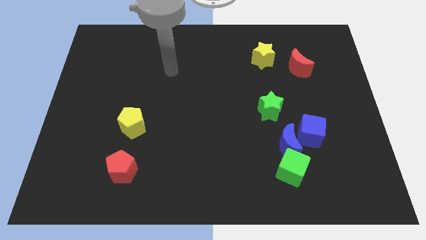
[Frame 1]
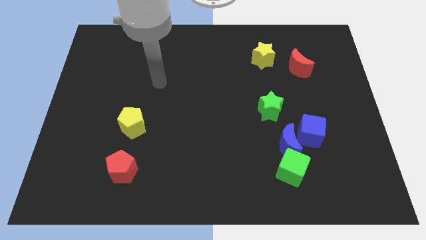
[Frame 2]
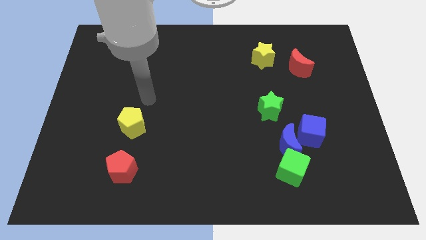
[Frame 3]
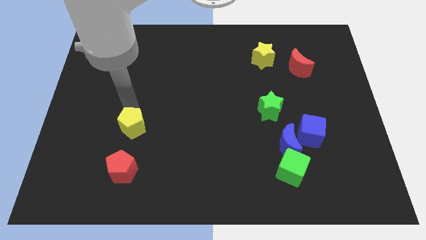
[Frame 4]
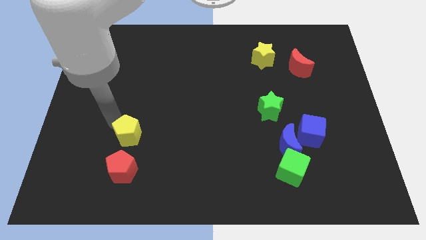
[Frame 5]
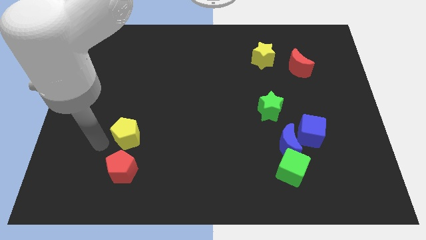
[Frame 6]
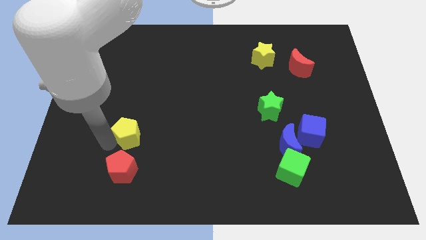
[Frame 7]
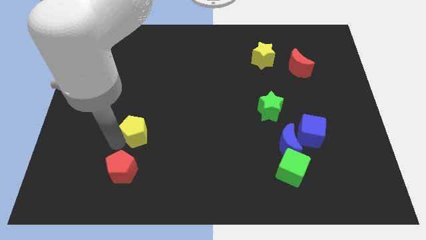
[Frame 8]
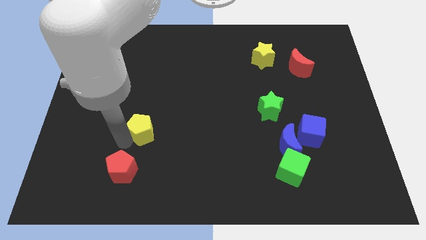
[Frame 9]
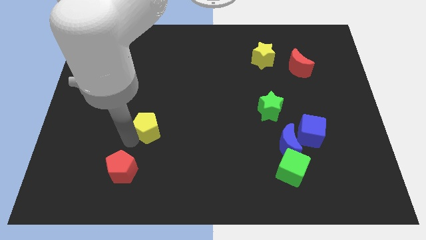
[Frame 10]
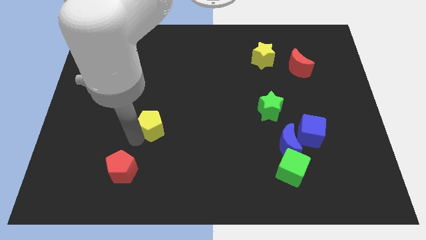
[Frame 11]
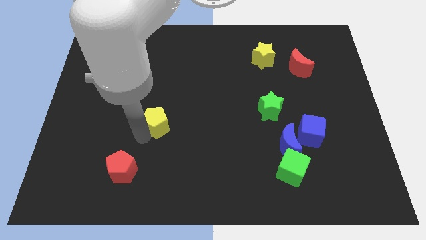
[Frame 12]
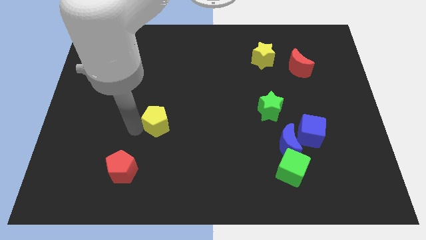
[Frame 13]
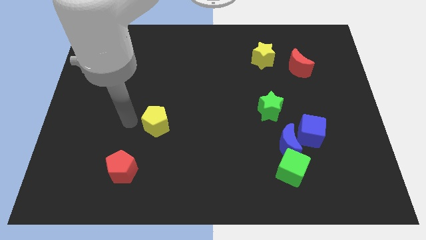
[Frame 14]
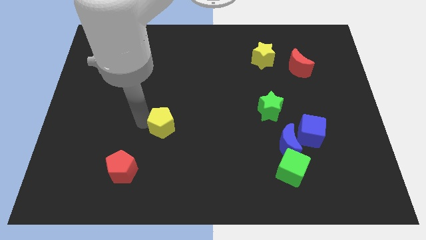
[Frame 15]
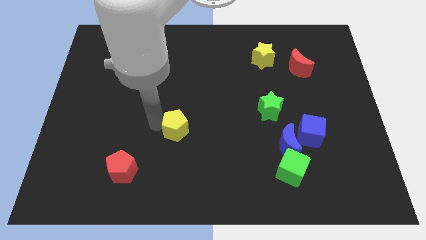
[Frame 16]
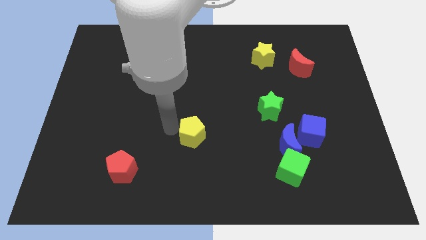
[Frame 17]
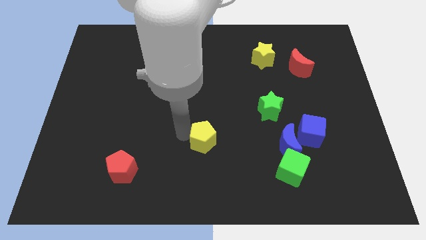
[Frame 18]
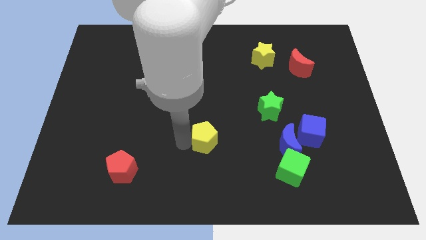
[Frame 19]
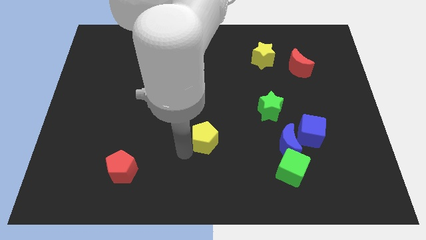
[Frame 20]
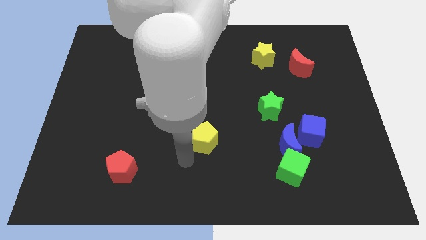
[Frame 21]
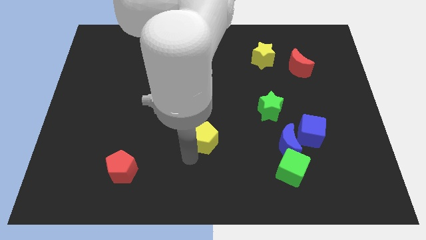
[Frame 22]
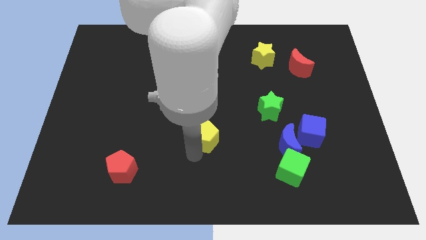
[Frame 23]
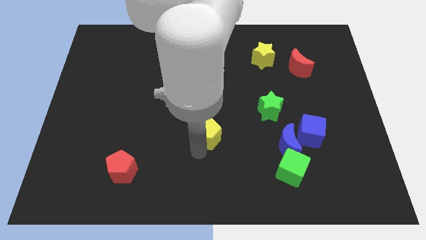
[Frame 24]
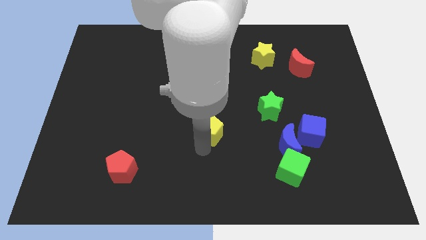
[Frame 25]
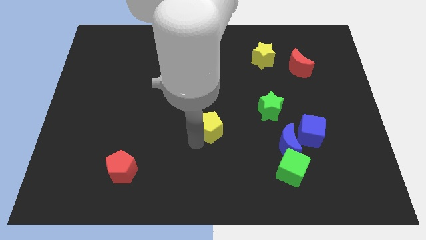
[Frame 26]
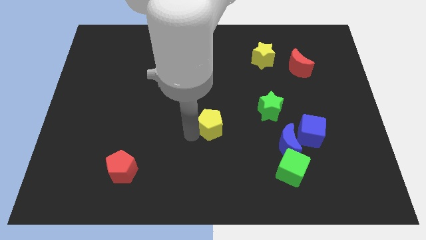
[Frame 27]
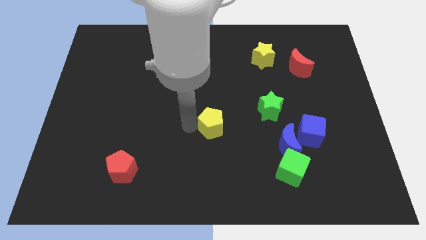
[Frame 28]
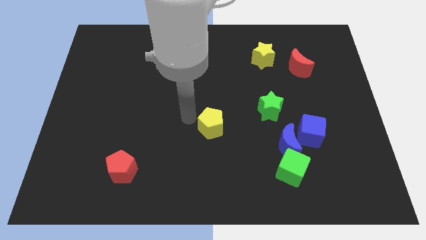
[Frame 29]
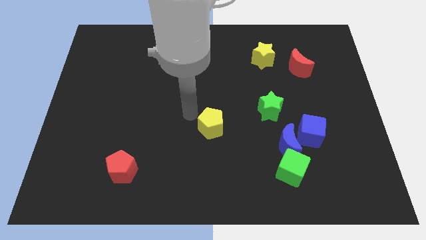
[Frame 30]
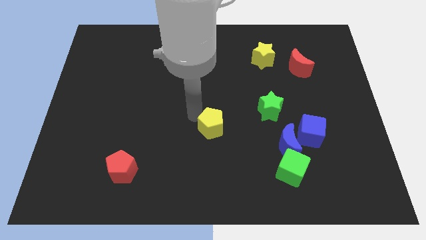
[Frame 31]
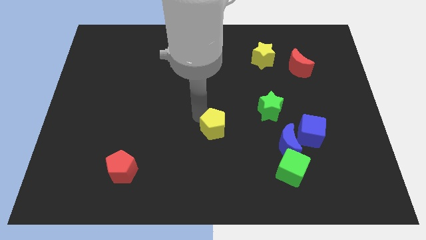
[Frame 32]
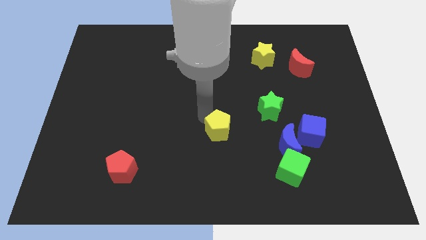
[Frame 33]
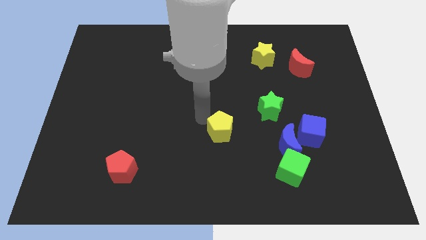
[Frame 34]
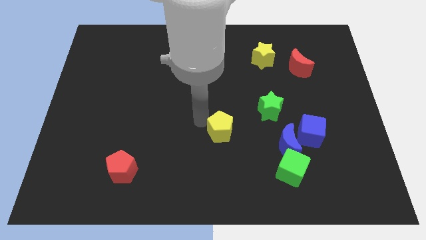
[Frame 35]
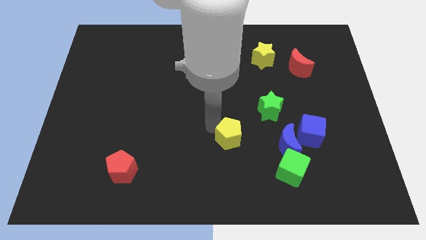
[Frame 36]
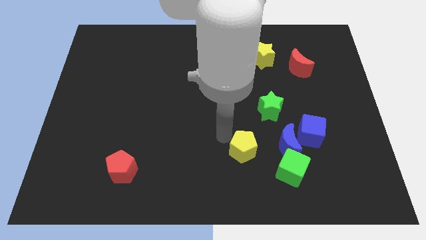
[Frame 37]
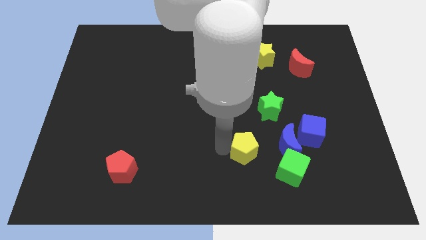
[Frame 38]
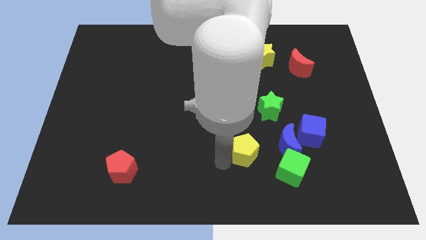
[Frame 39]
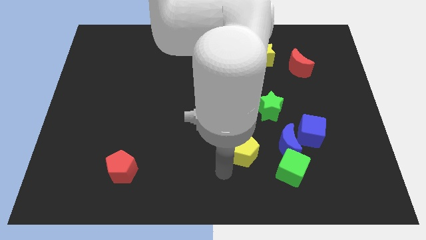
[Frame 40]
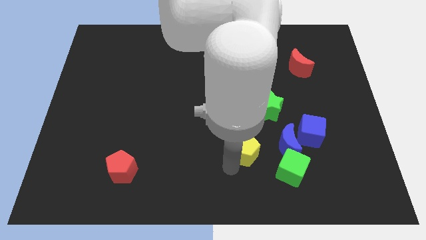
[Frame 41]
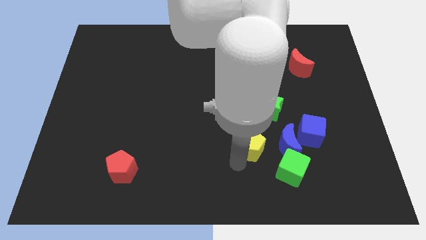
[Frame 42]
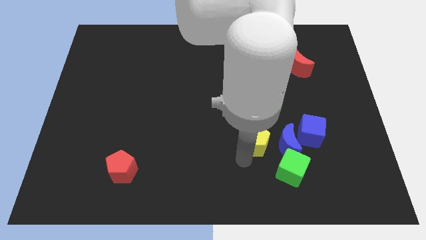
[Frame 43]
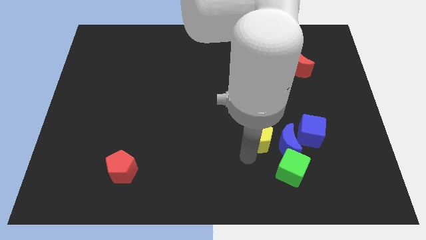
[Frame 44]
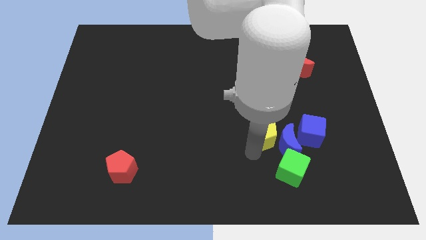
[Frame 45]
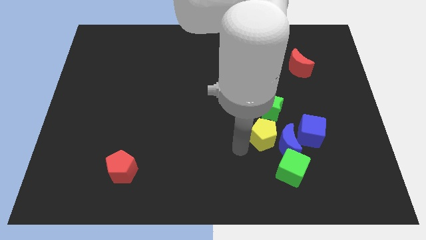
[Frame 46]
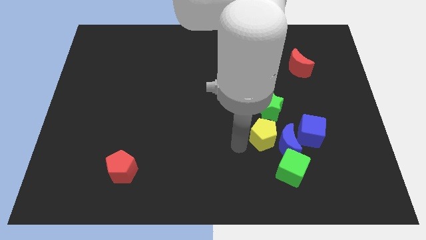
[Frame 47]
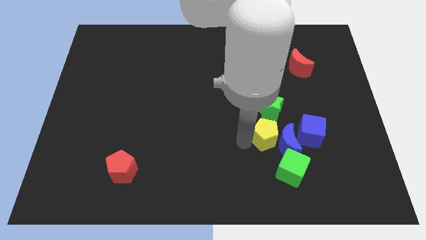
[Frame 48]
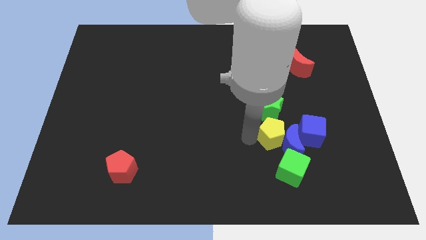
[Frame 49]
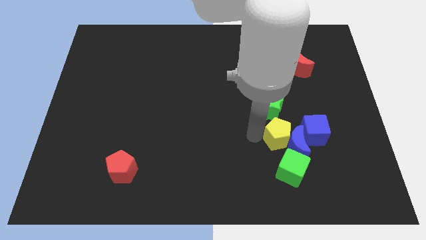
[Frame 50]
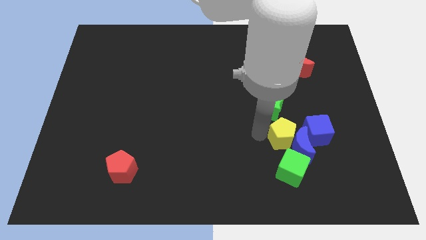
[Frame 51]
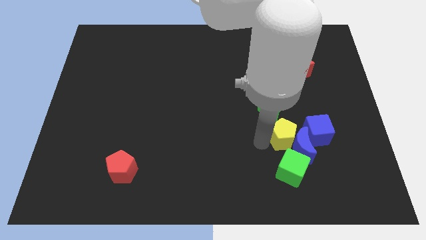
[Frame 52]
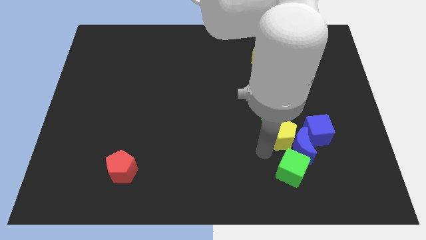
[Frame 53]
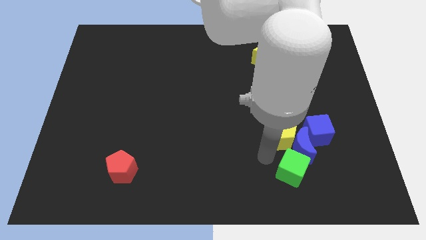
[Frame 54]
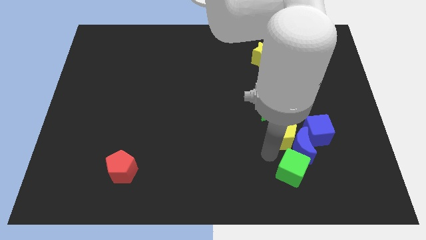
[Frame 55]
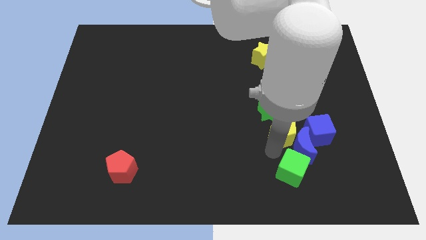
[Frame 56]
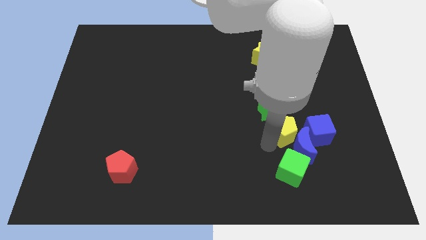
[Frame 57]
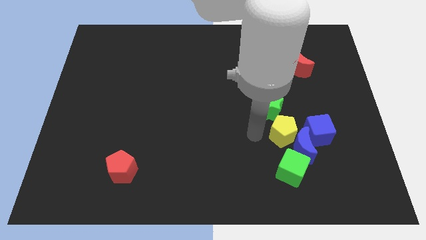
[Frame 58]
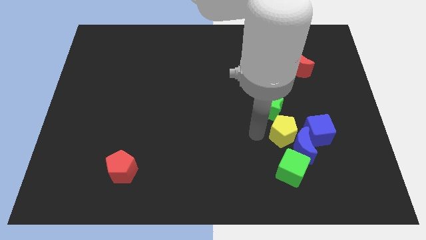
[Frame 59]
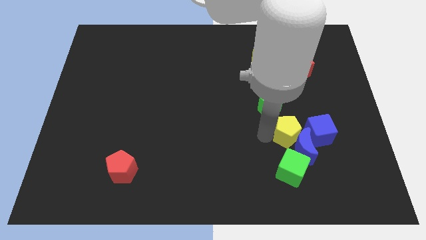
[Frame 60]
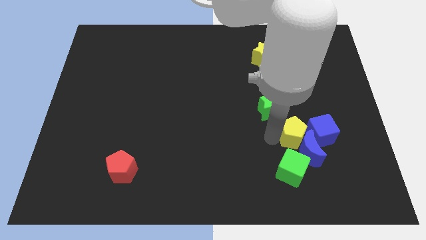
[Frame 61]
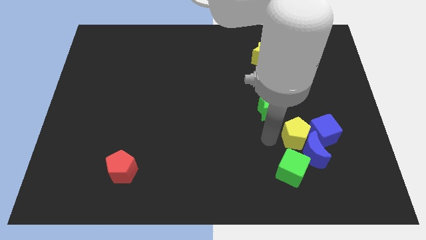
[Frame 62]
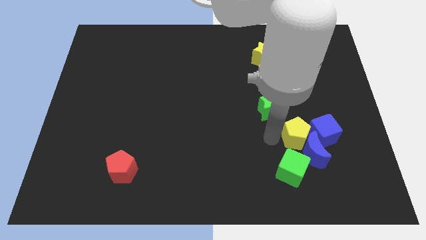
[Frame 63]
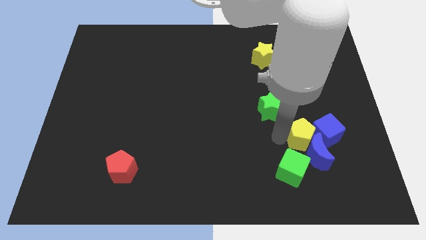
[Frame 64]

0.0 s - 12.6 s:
put the yellow pentagon next to the blue cube

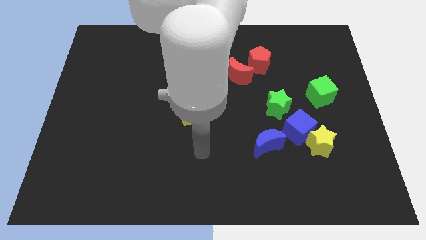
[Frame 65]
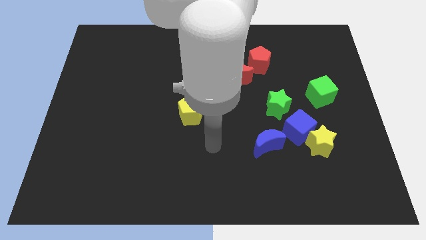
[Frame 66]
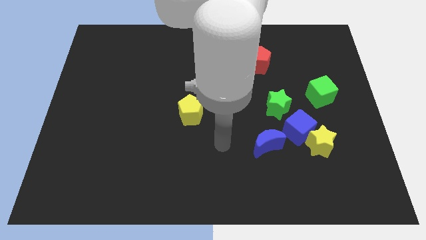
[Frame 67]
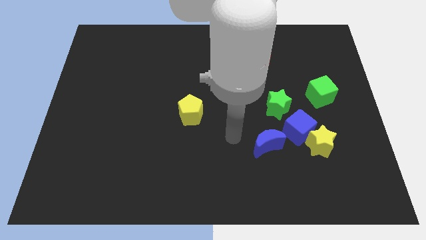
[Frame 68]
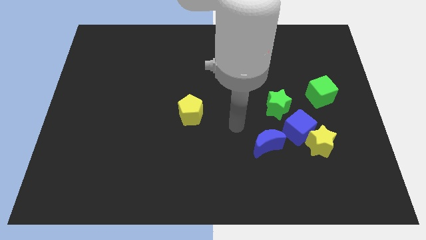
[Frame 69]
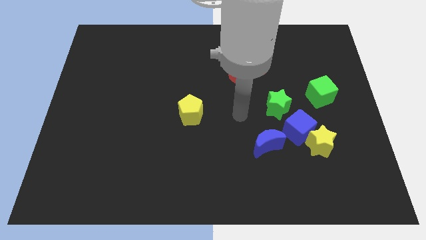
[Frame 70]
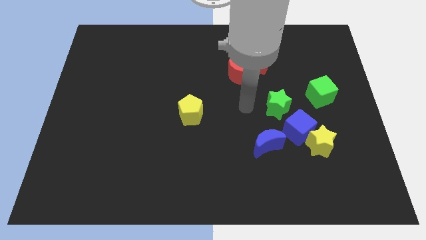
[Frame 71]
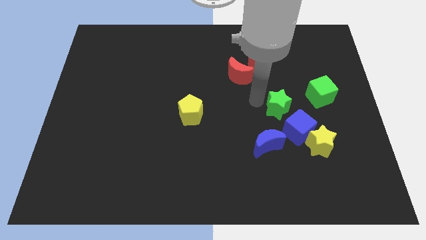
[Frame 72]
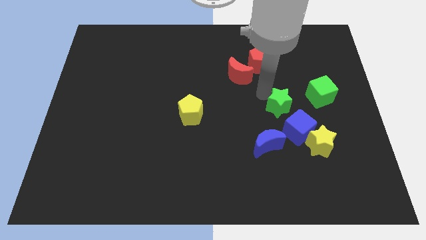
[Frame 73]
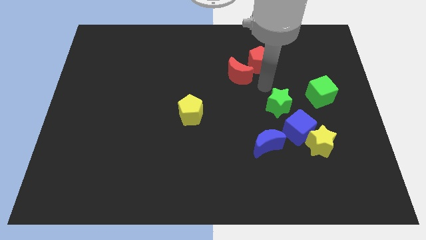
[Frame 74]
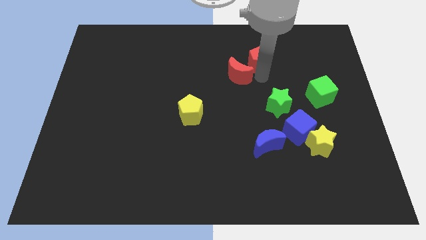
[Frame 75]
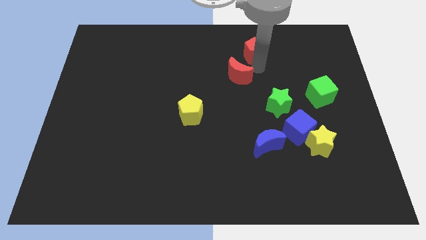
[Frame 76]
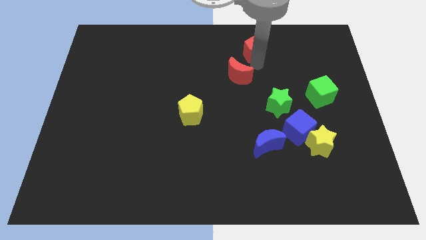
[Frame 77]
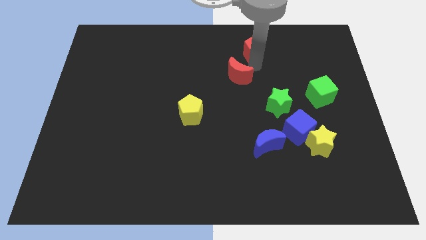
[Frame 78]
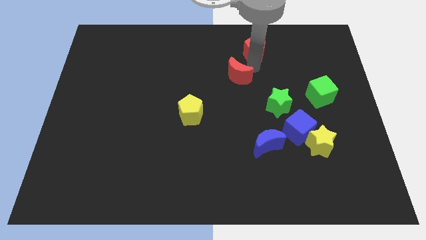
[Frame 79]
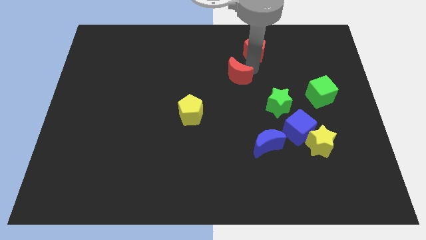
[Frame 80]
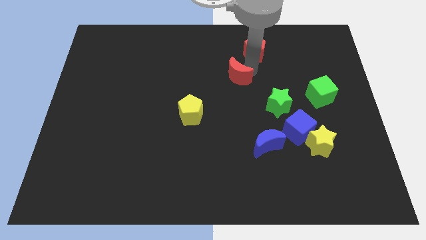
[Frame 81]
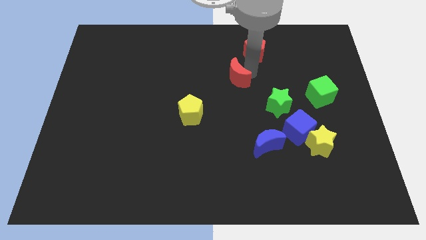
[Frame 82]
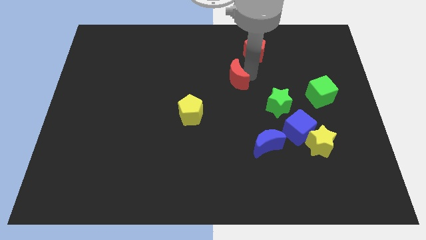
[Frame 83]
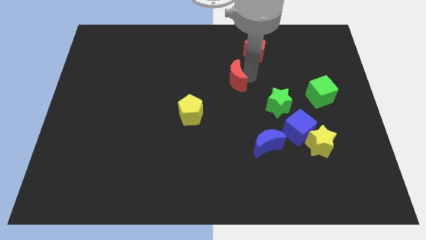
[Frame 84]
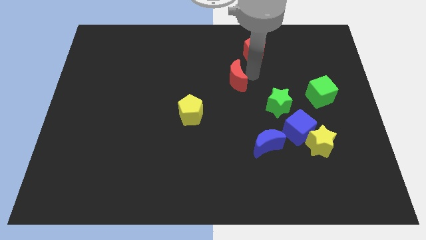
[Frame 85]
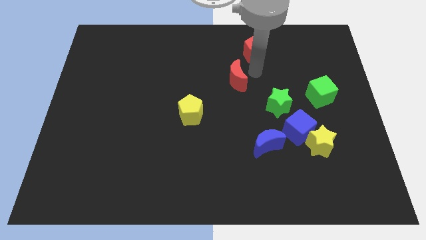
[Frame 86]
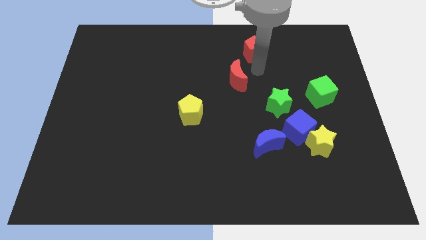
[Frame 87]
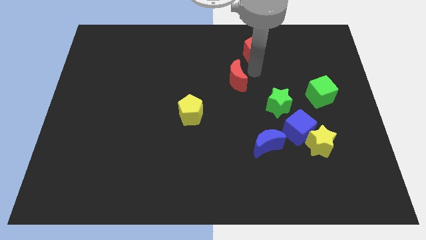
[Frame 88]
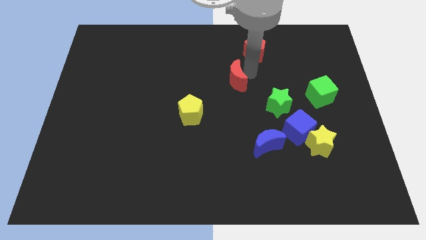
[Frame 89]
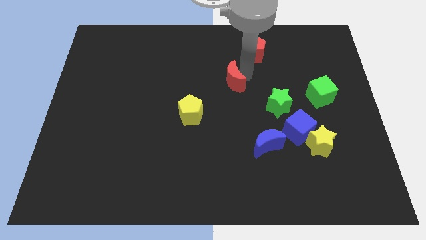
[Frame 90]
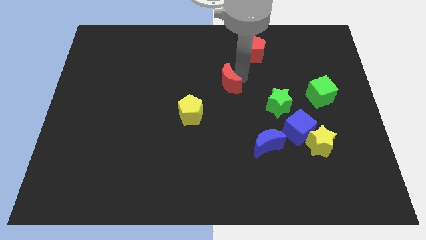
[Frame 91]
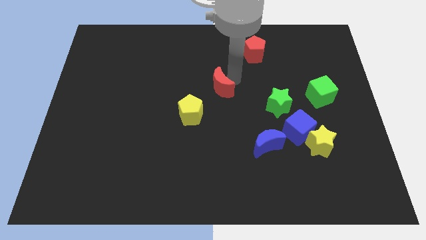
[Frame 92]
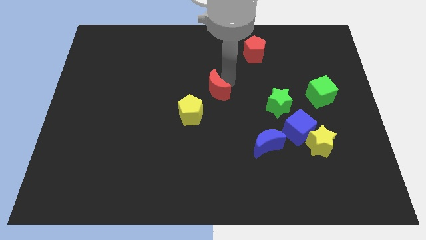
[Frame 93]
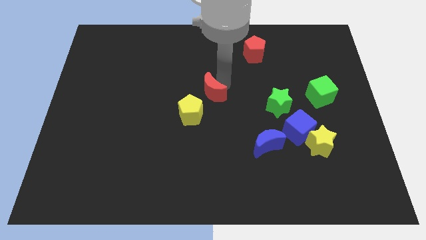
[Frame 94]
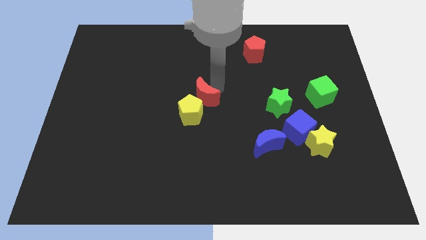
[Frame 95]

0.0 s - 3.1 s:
move the red moon to the yellow pentagon
